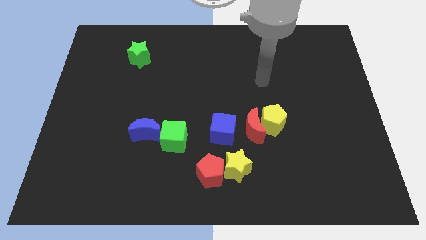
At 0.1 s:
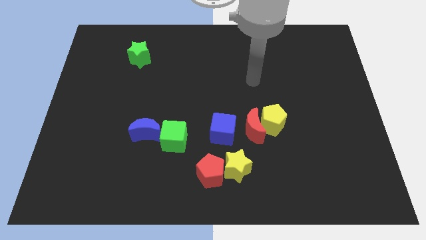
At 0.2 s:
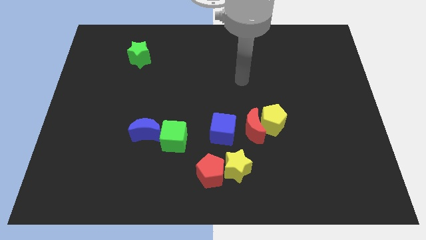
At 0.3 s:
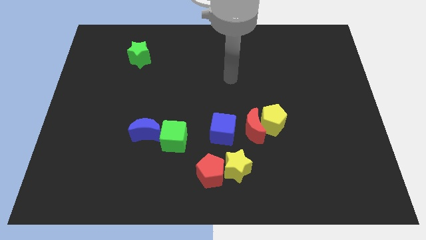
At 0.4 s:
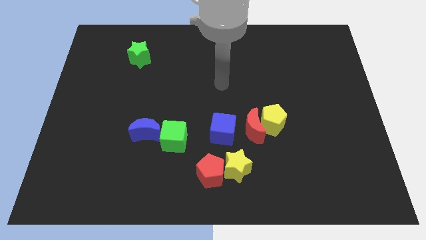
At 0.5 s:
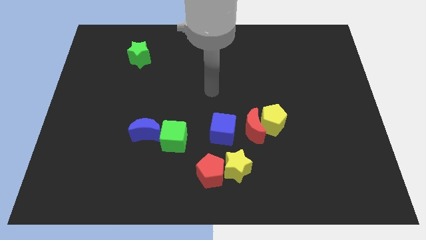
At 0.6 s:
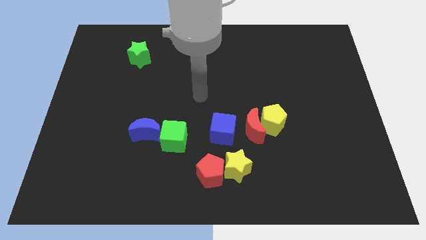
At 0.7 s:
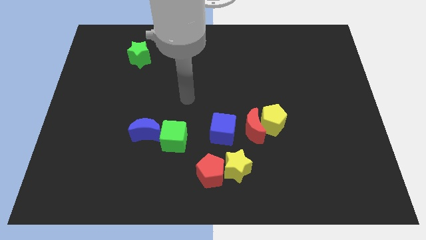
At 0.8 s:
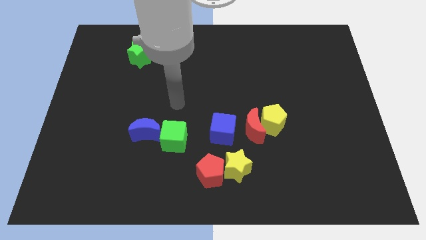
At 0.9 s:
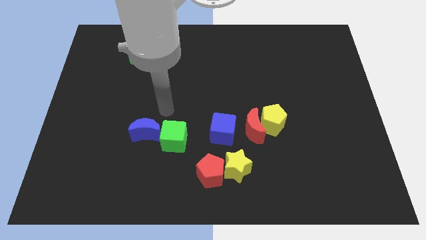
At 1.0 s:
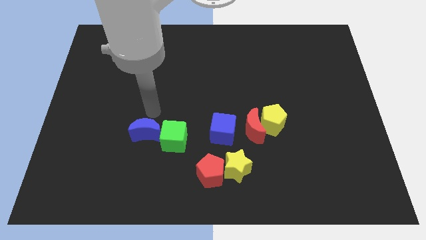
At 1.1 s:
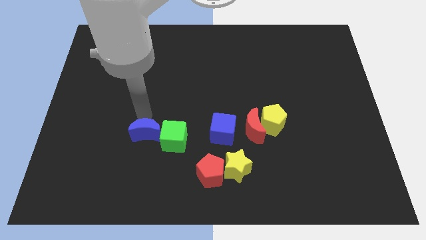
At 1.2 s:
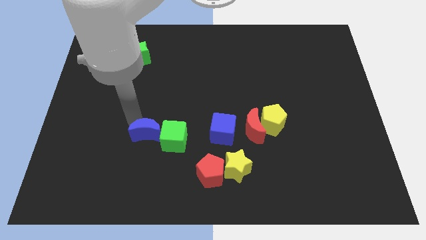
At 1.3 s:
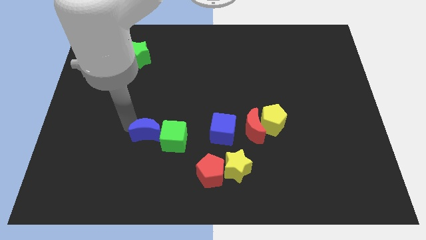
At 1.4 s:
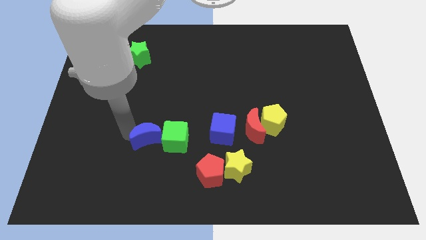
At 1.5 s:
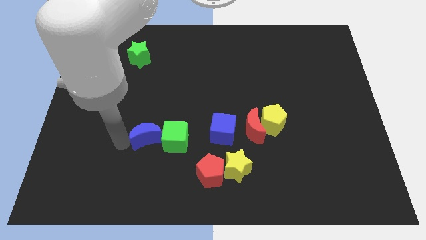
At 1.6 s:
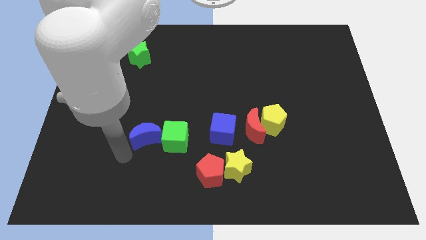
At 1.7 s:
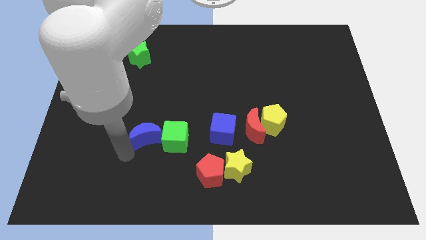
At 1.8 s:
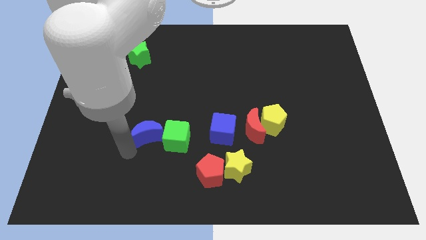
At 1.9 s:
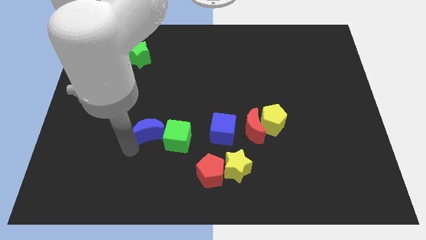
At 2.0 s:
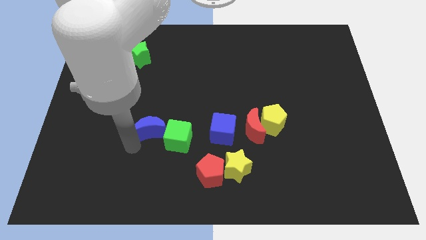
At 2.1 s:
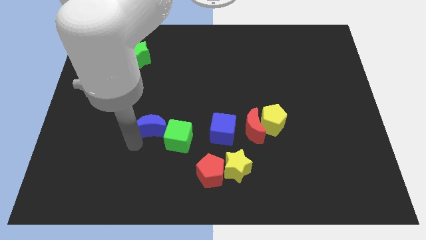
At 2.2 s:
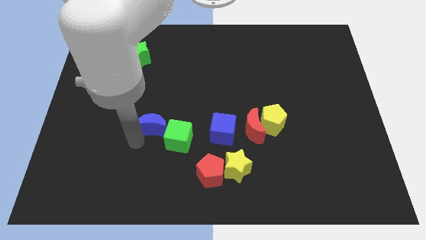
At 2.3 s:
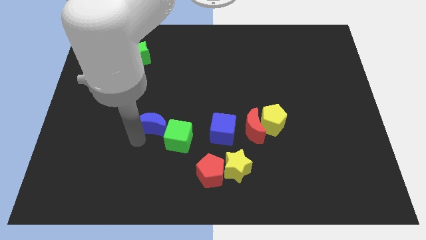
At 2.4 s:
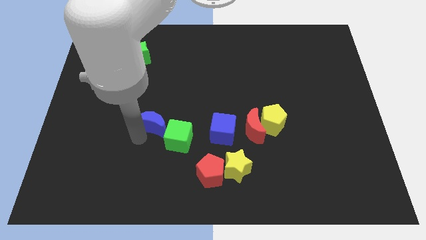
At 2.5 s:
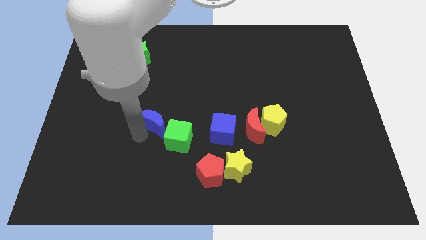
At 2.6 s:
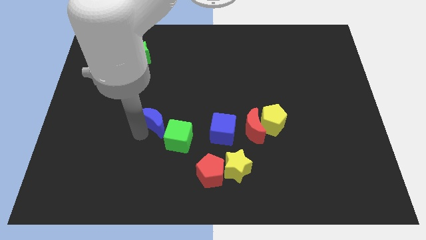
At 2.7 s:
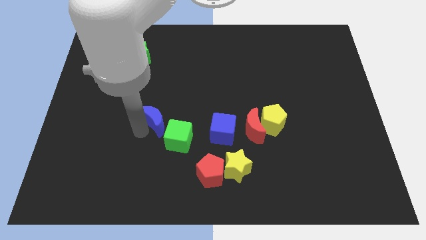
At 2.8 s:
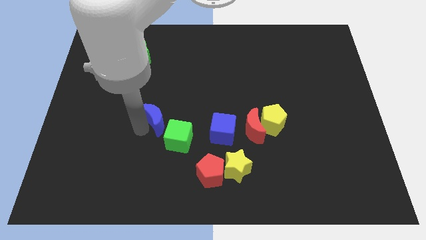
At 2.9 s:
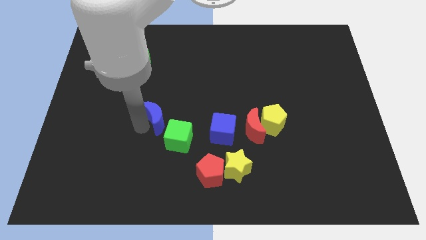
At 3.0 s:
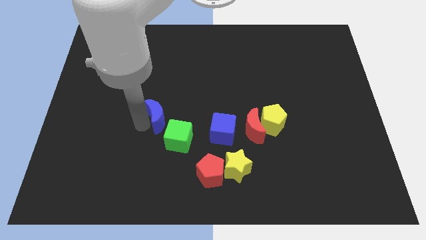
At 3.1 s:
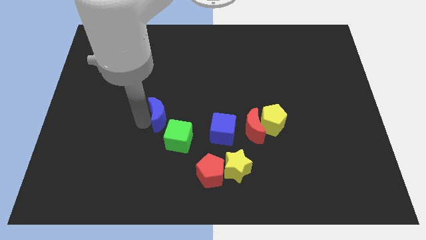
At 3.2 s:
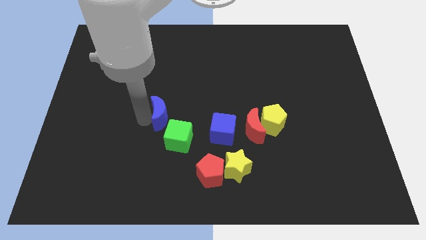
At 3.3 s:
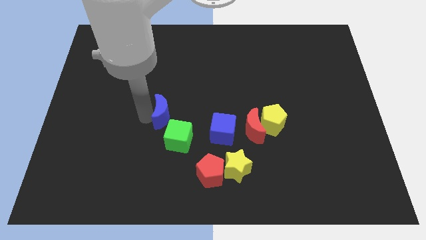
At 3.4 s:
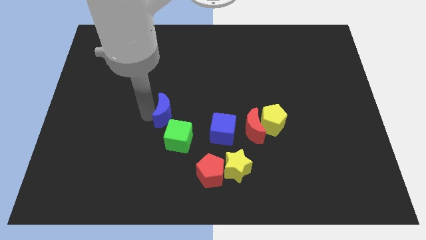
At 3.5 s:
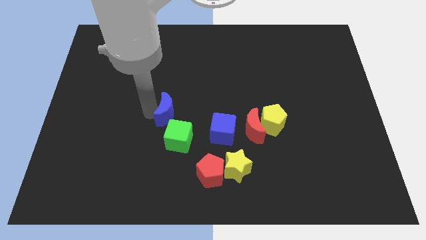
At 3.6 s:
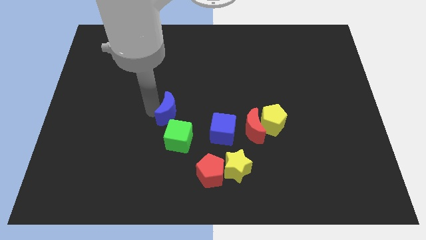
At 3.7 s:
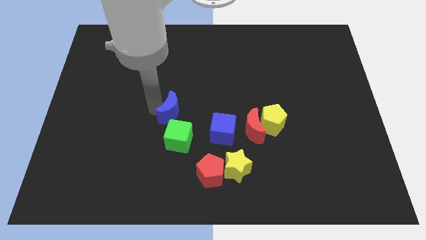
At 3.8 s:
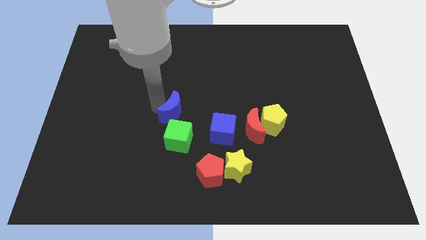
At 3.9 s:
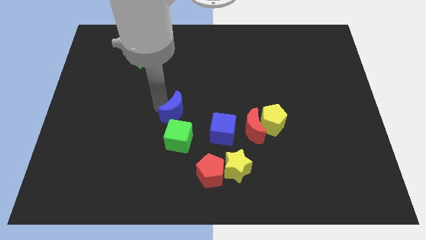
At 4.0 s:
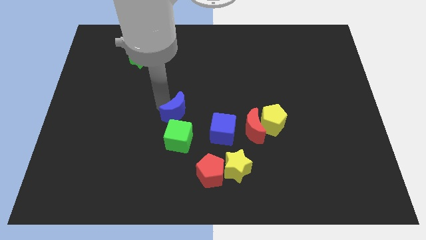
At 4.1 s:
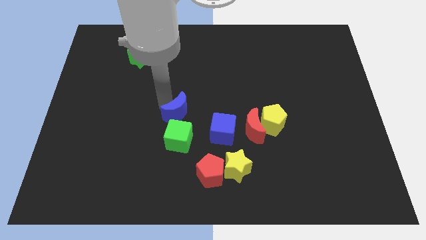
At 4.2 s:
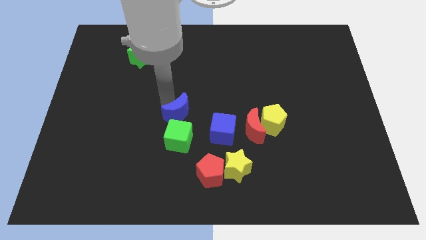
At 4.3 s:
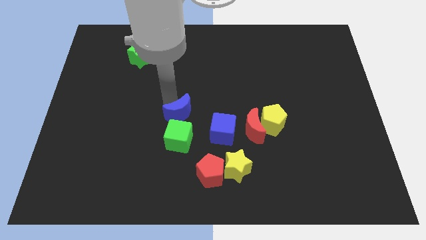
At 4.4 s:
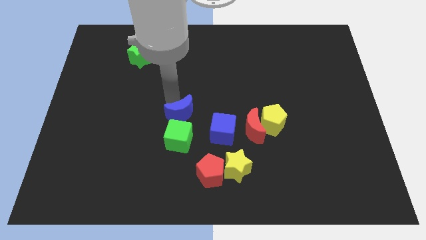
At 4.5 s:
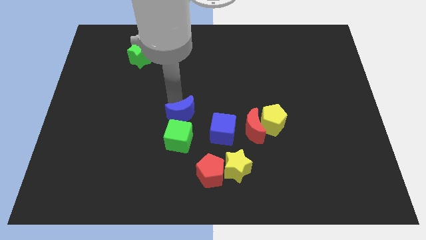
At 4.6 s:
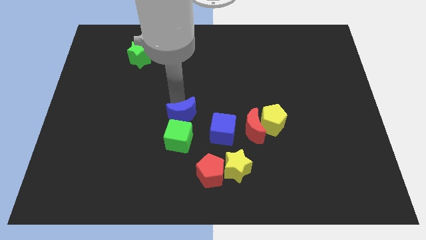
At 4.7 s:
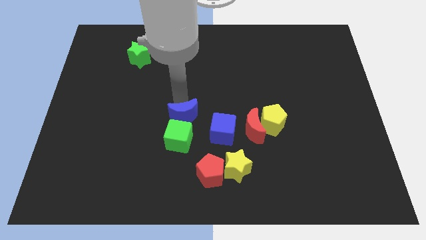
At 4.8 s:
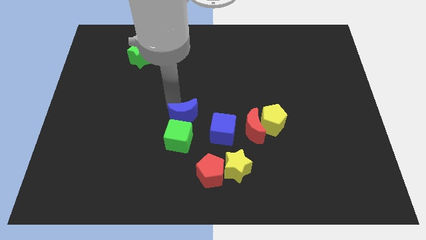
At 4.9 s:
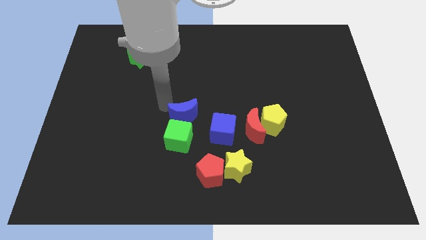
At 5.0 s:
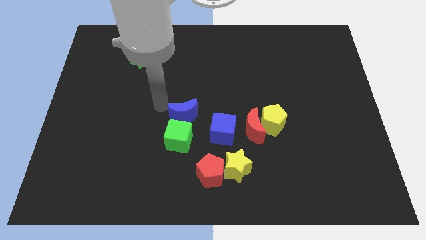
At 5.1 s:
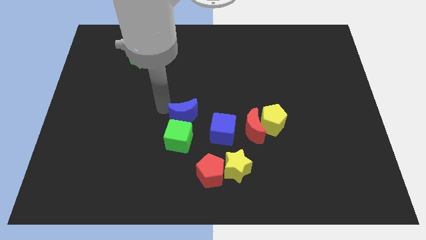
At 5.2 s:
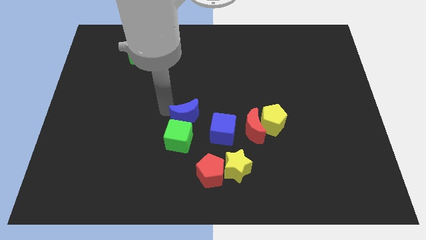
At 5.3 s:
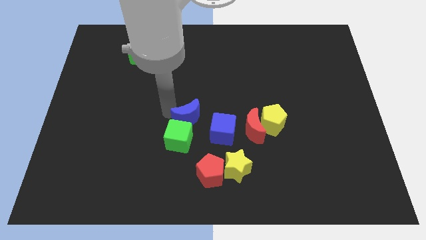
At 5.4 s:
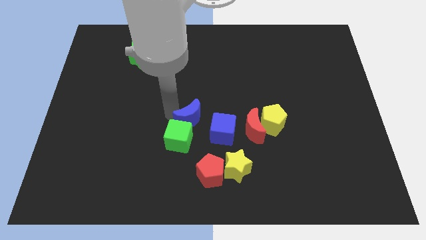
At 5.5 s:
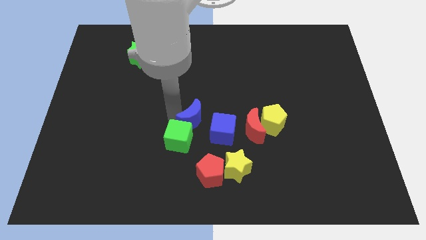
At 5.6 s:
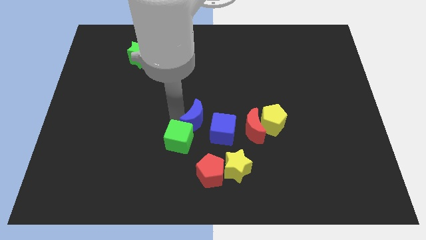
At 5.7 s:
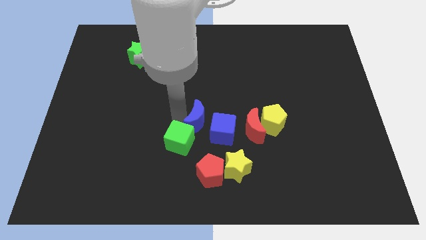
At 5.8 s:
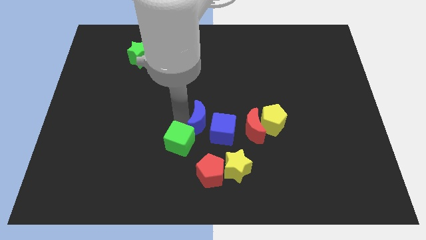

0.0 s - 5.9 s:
slide the blue moon to the blue cube

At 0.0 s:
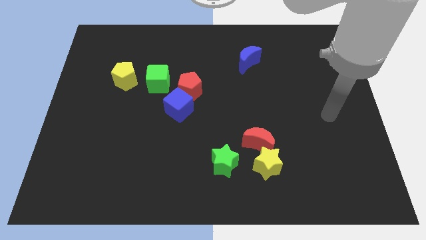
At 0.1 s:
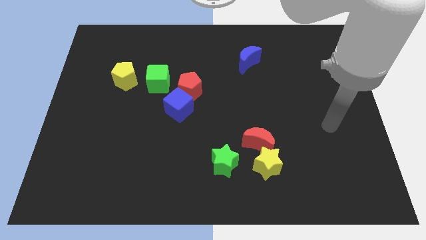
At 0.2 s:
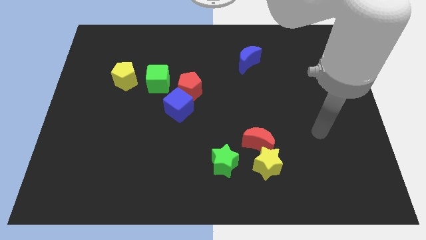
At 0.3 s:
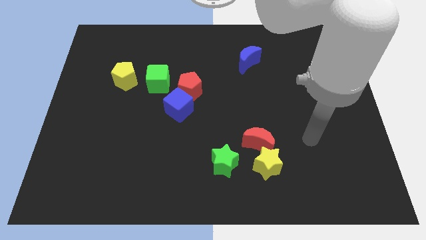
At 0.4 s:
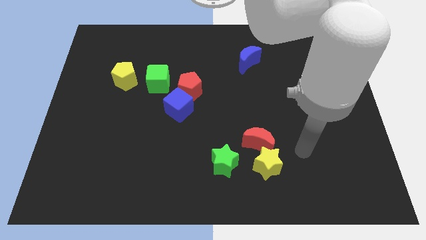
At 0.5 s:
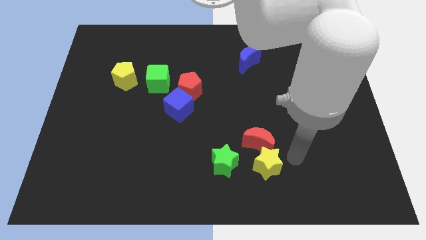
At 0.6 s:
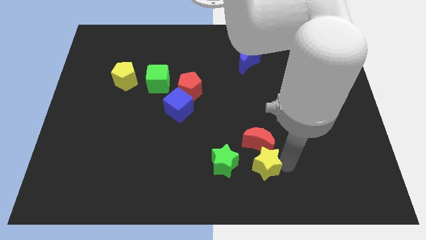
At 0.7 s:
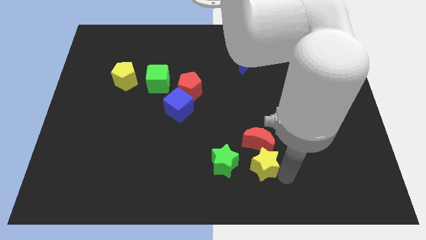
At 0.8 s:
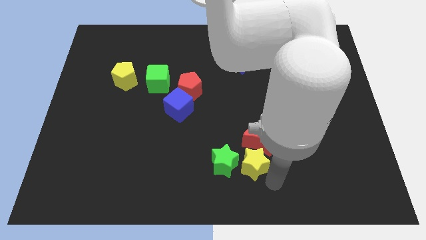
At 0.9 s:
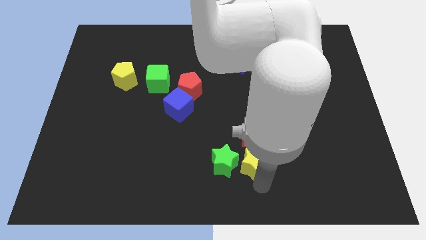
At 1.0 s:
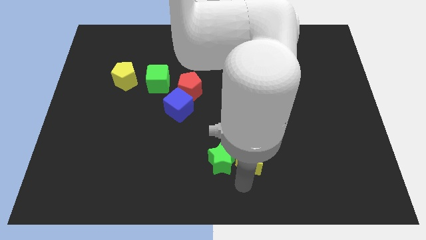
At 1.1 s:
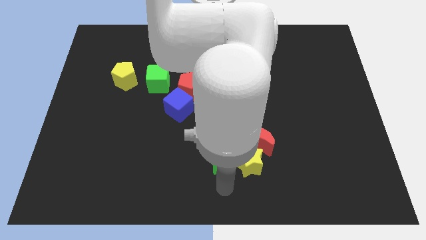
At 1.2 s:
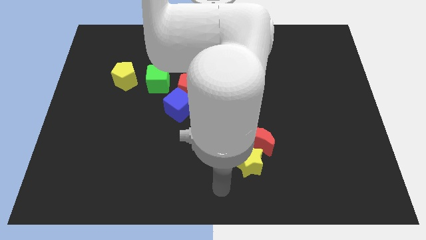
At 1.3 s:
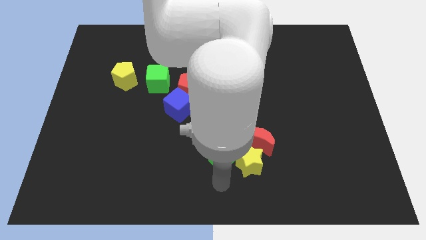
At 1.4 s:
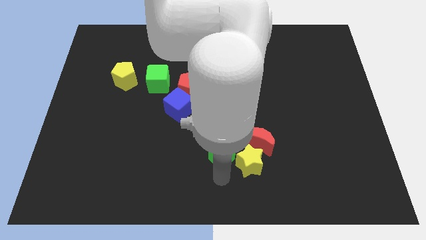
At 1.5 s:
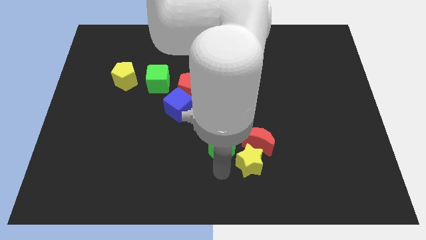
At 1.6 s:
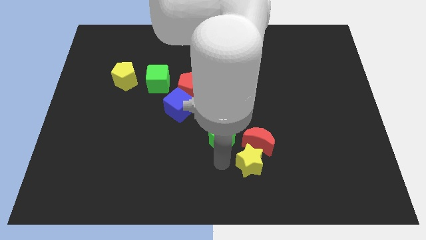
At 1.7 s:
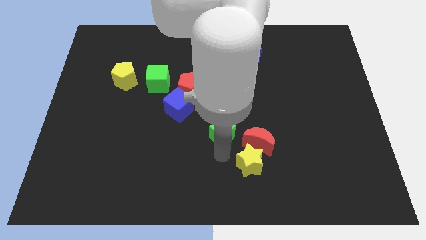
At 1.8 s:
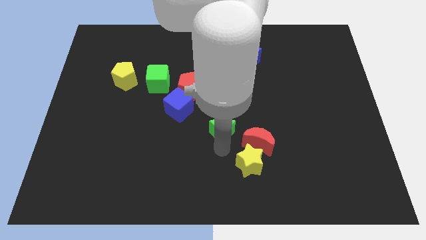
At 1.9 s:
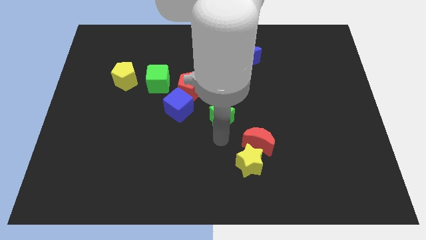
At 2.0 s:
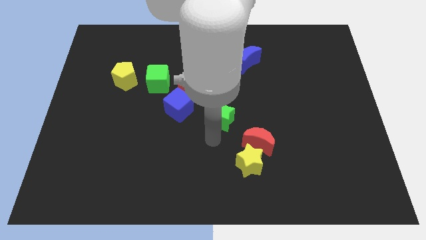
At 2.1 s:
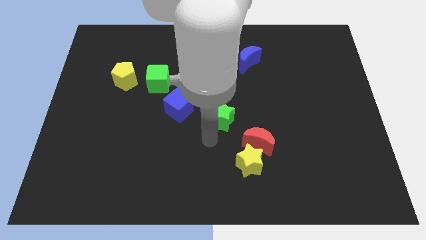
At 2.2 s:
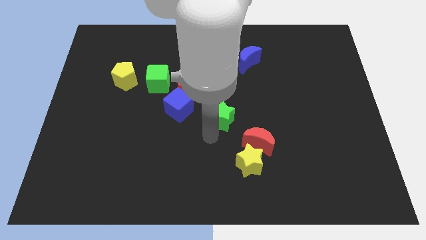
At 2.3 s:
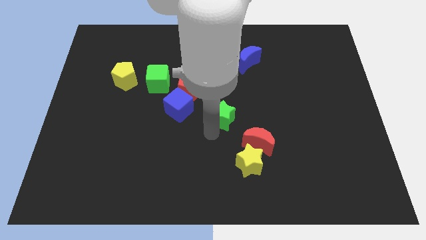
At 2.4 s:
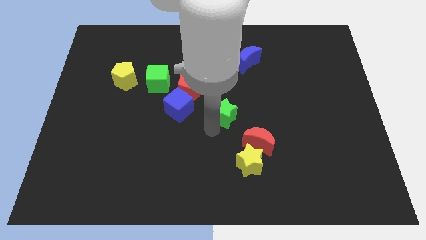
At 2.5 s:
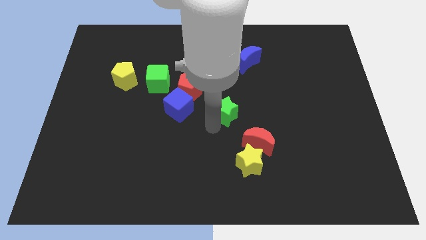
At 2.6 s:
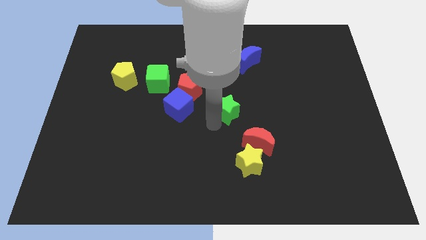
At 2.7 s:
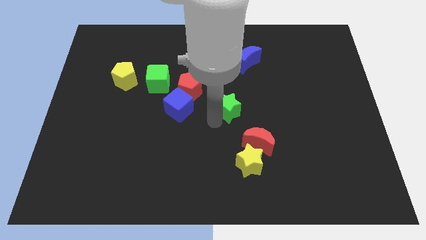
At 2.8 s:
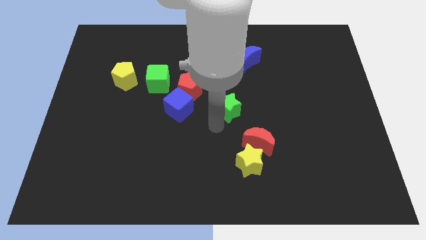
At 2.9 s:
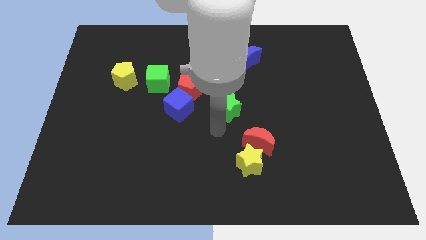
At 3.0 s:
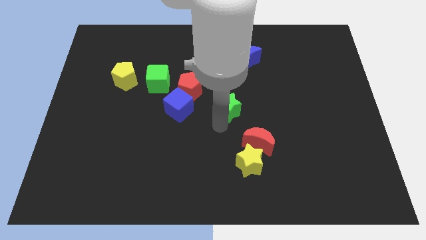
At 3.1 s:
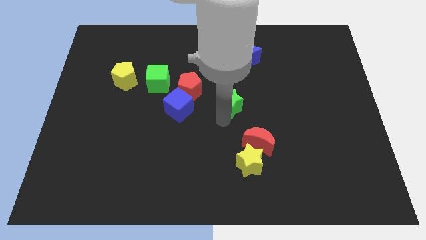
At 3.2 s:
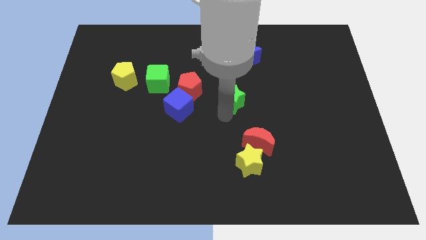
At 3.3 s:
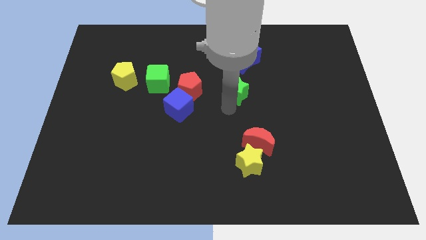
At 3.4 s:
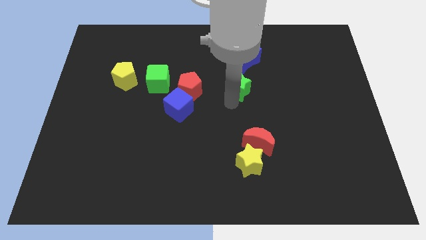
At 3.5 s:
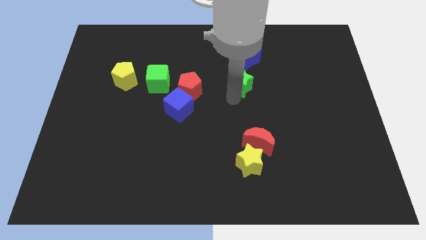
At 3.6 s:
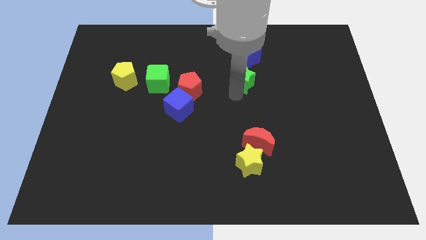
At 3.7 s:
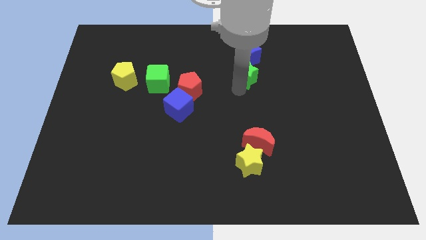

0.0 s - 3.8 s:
push the green star to the blue moon
